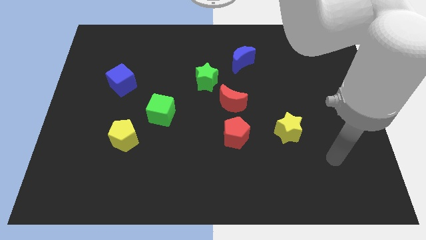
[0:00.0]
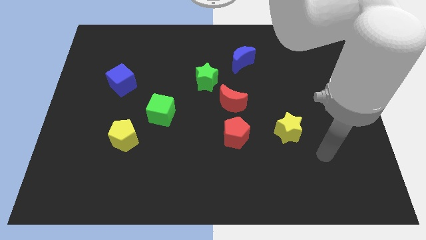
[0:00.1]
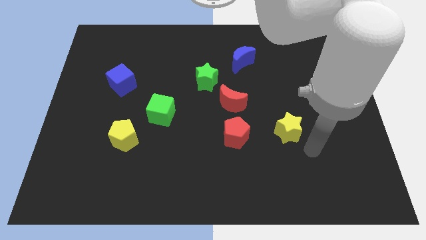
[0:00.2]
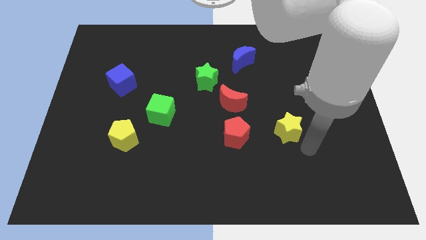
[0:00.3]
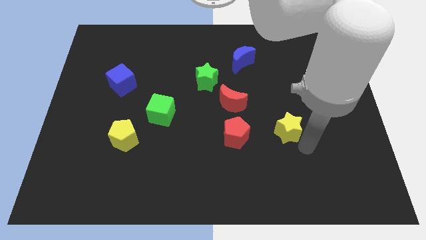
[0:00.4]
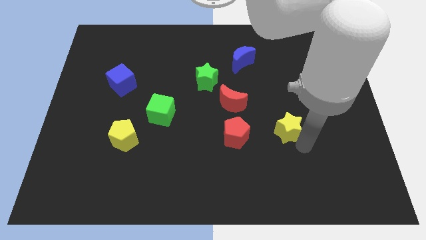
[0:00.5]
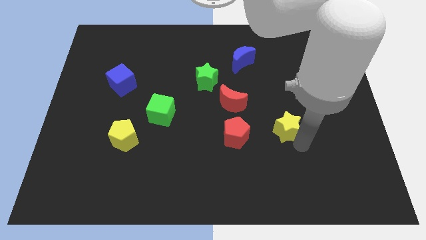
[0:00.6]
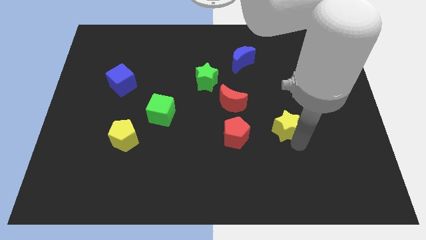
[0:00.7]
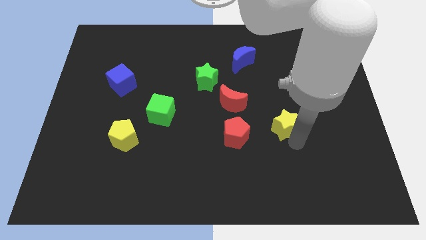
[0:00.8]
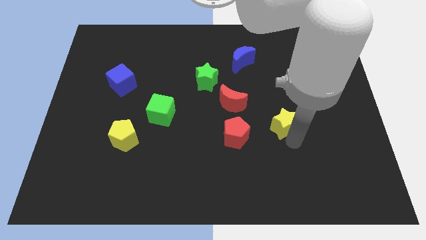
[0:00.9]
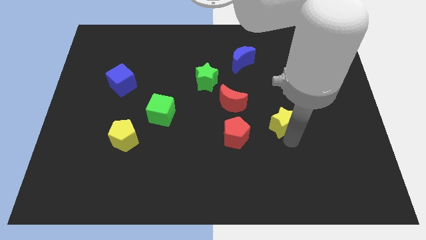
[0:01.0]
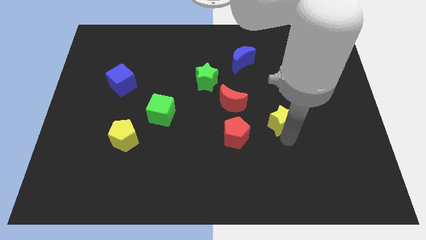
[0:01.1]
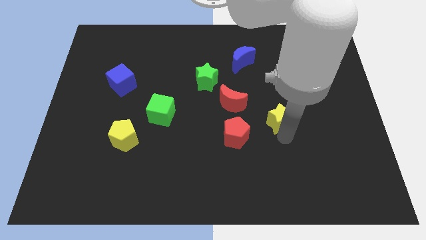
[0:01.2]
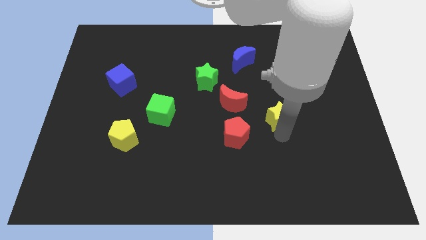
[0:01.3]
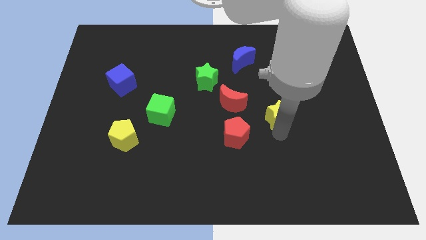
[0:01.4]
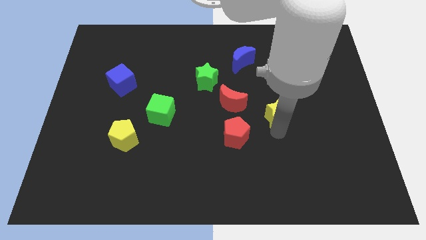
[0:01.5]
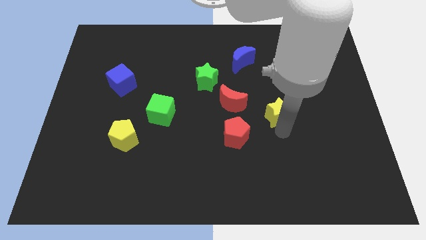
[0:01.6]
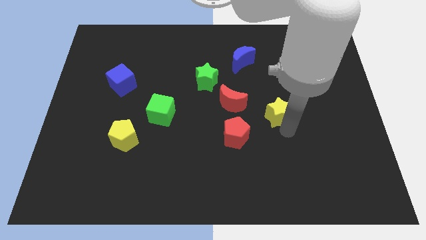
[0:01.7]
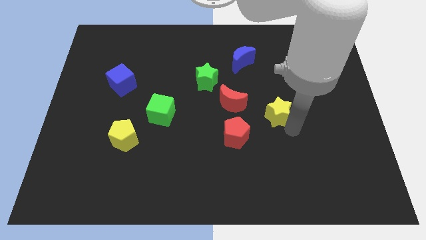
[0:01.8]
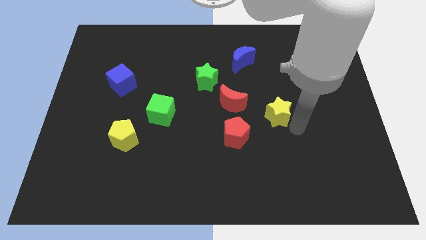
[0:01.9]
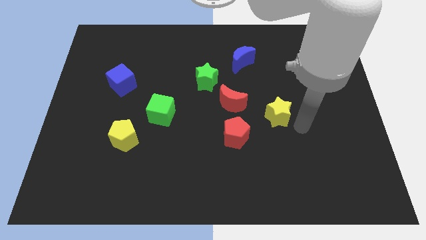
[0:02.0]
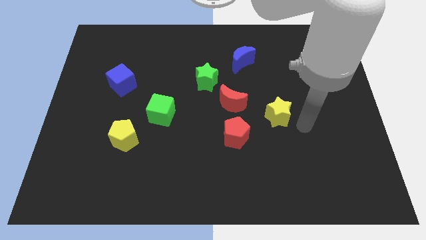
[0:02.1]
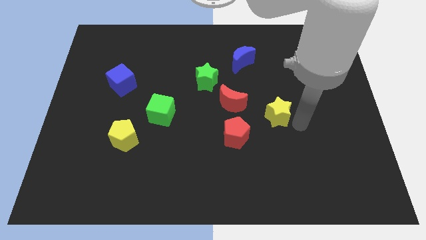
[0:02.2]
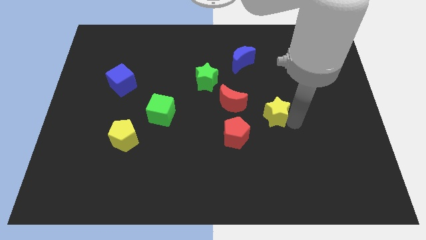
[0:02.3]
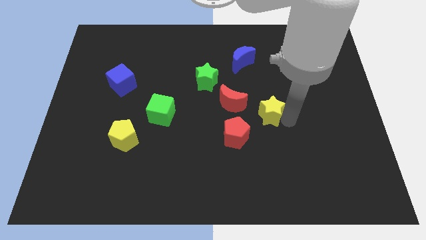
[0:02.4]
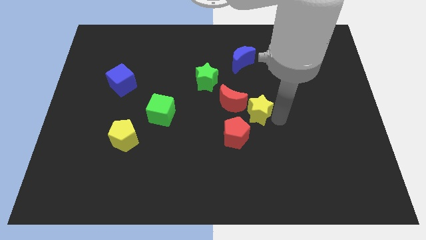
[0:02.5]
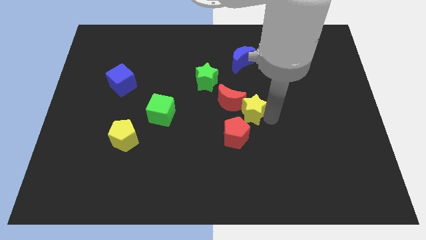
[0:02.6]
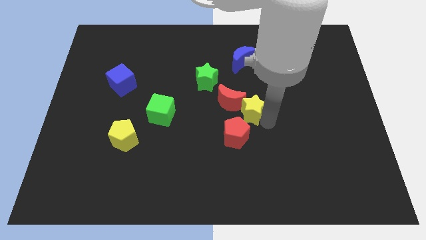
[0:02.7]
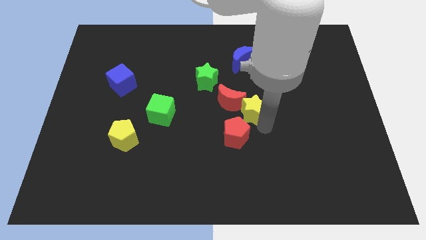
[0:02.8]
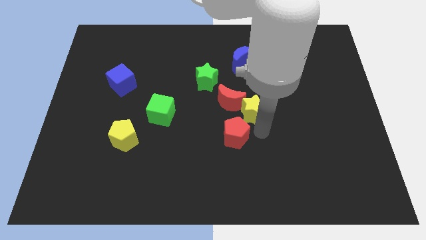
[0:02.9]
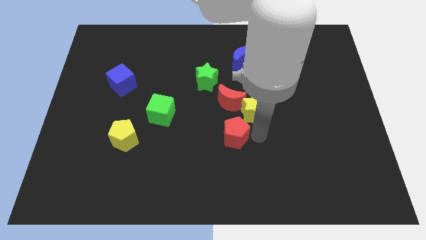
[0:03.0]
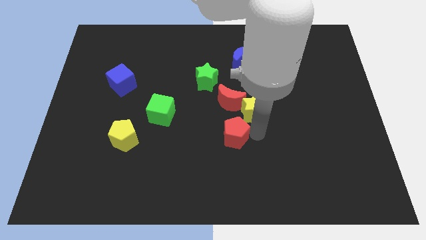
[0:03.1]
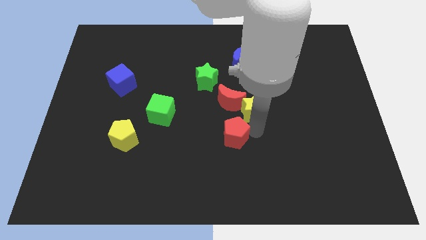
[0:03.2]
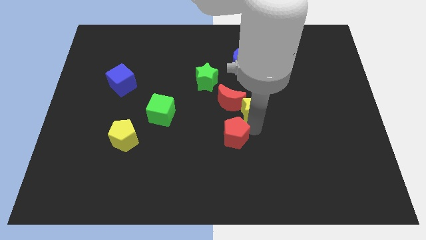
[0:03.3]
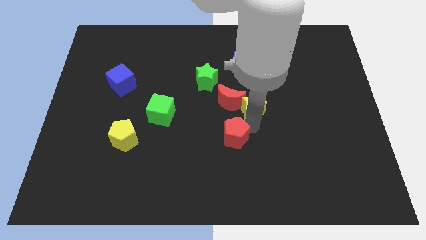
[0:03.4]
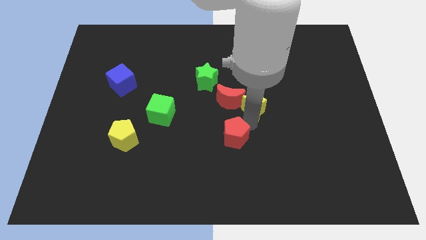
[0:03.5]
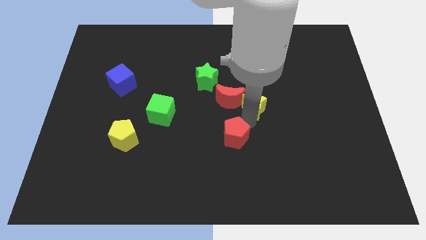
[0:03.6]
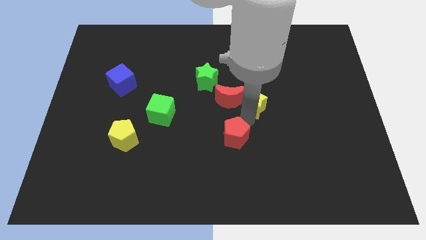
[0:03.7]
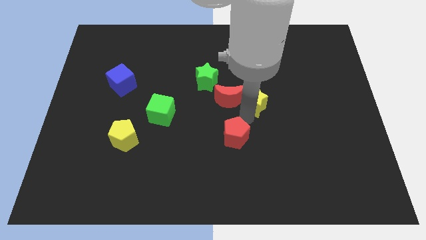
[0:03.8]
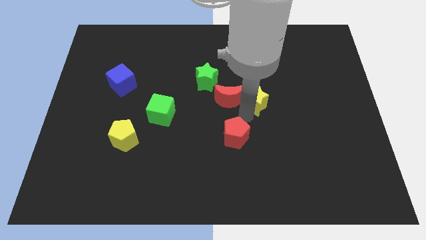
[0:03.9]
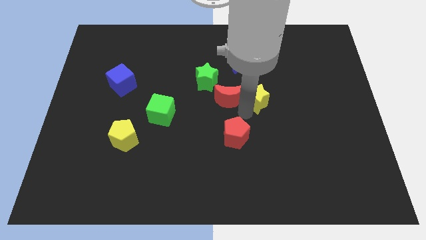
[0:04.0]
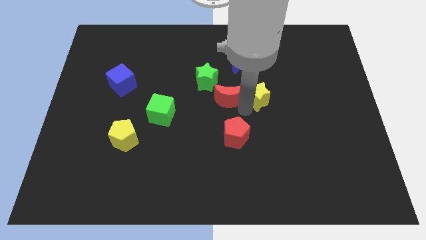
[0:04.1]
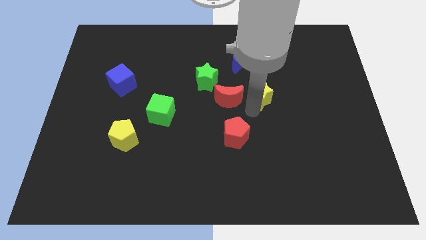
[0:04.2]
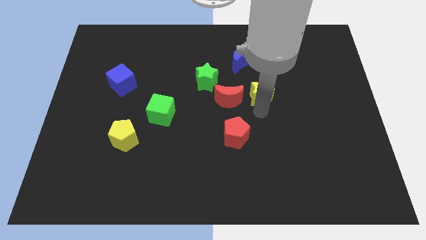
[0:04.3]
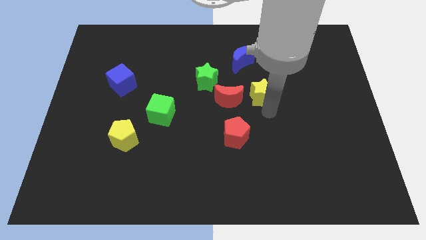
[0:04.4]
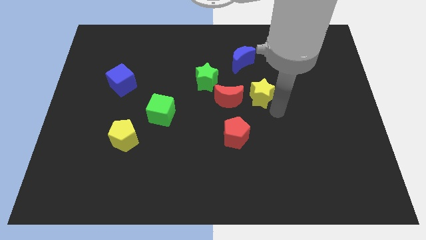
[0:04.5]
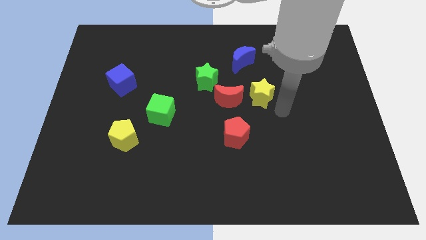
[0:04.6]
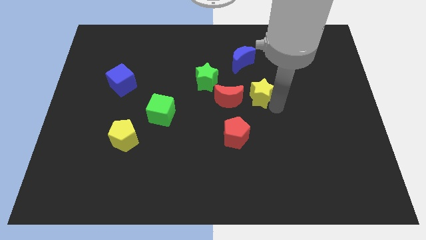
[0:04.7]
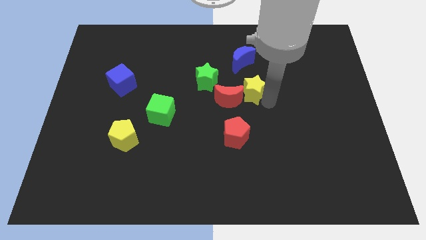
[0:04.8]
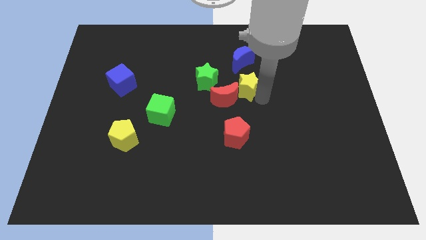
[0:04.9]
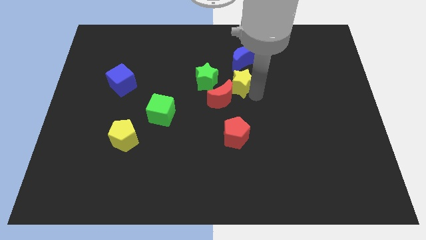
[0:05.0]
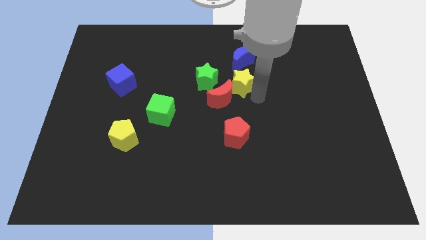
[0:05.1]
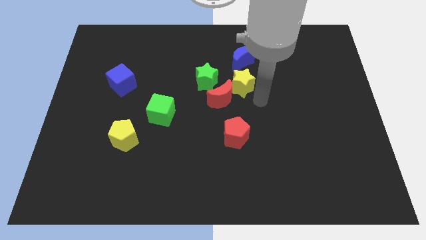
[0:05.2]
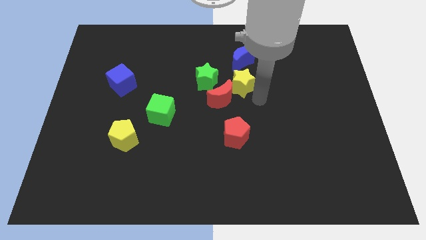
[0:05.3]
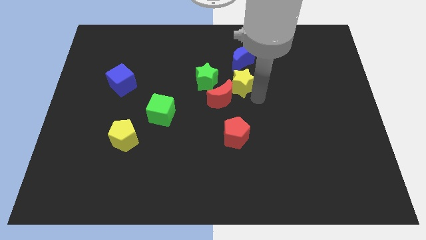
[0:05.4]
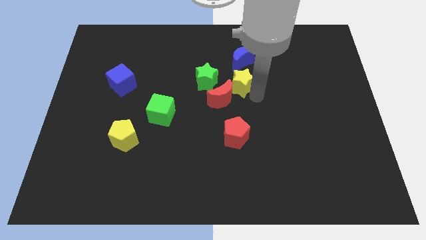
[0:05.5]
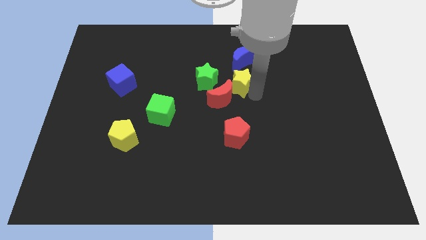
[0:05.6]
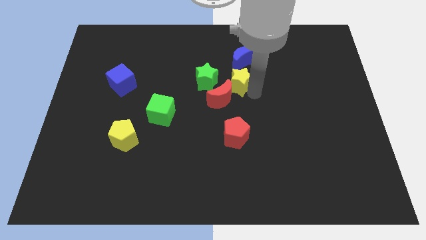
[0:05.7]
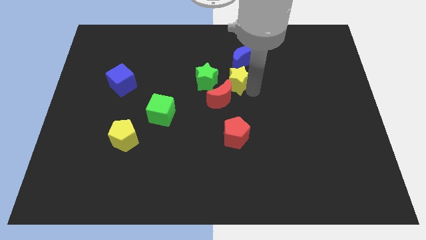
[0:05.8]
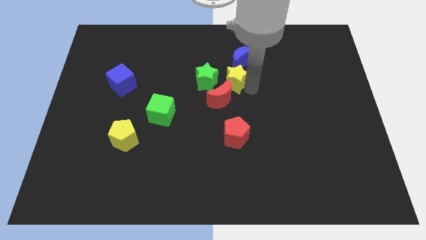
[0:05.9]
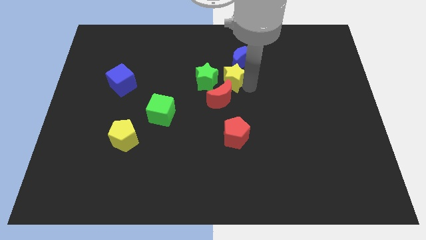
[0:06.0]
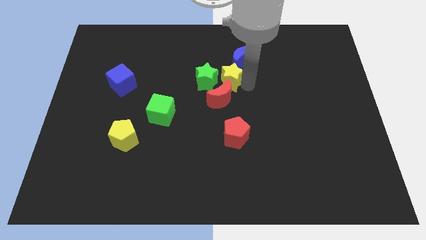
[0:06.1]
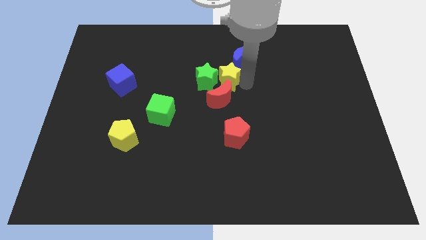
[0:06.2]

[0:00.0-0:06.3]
push the yellow star upwards and to the left

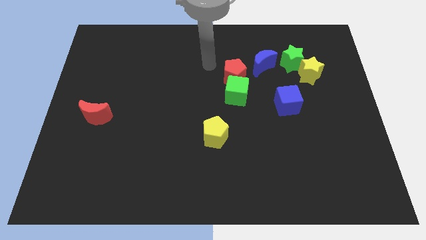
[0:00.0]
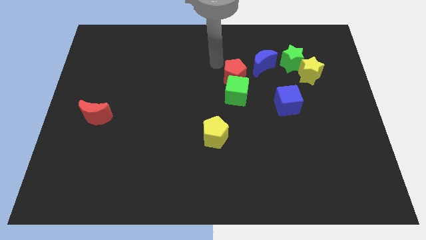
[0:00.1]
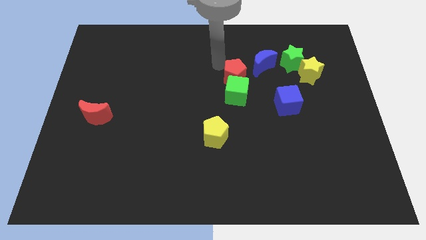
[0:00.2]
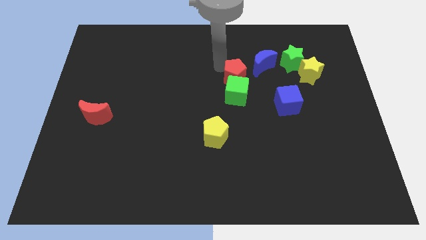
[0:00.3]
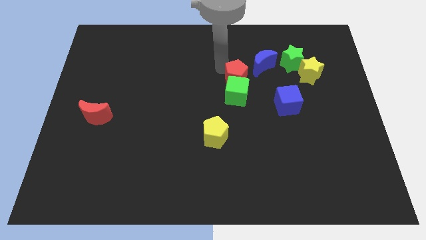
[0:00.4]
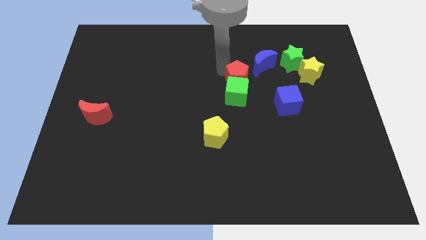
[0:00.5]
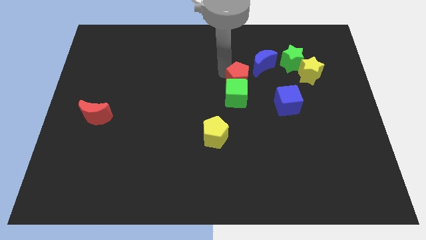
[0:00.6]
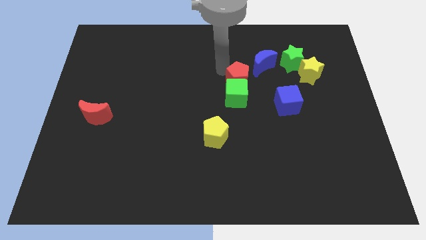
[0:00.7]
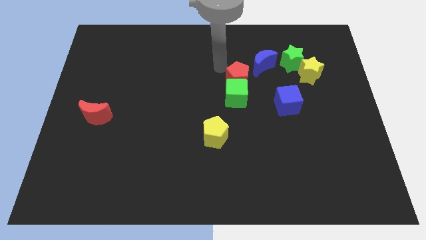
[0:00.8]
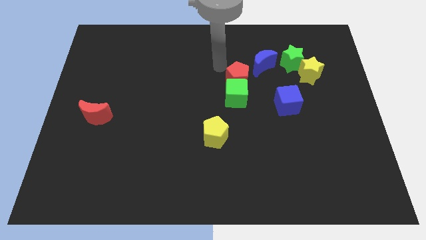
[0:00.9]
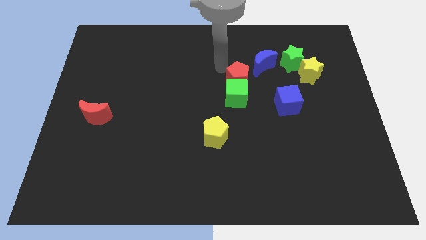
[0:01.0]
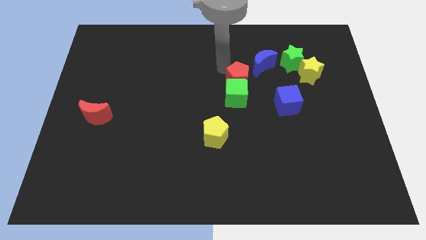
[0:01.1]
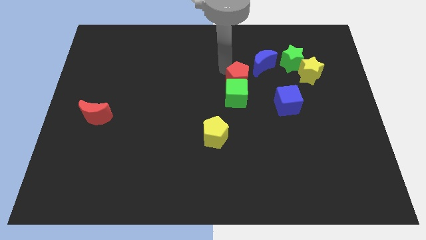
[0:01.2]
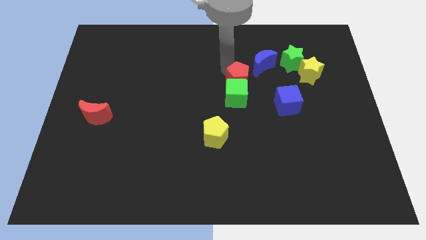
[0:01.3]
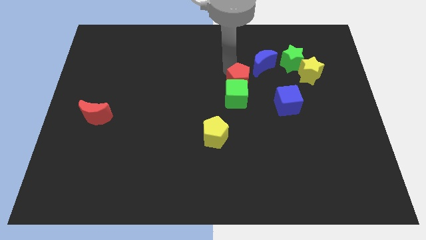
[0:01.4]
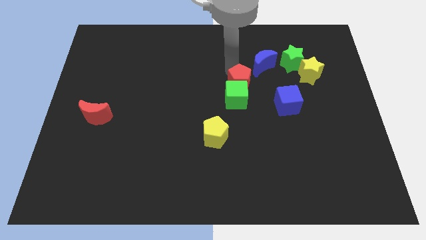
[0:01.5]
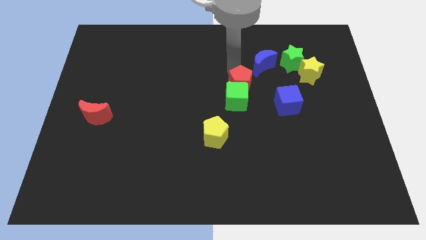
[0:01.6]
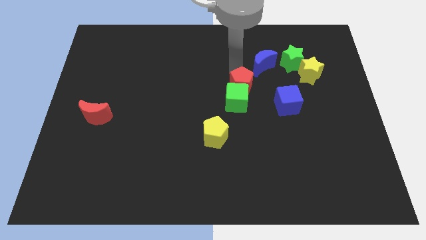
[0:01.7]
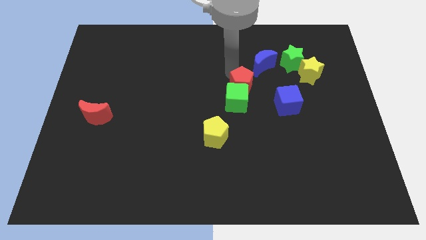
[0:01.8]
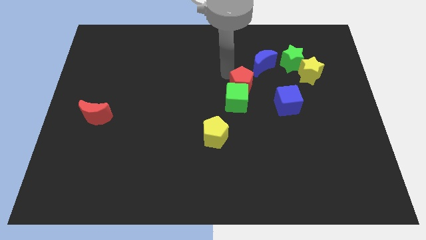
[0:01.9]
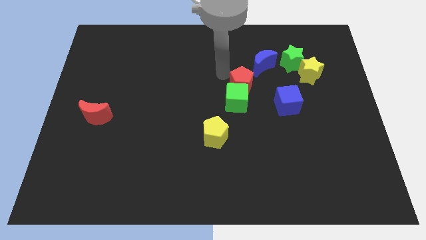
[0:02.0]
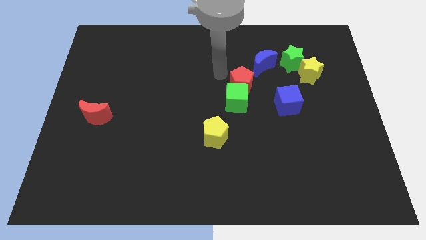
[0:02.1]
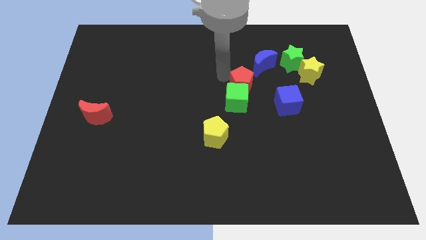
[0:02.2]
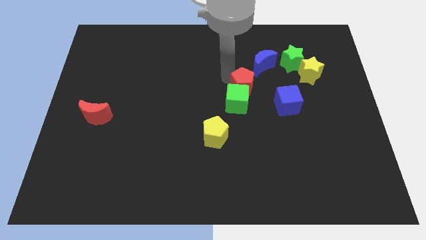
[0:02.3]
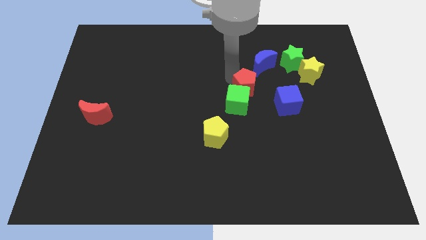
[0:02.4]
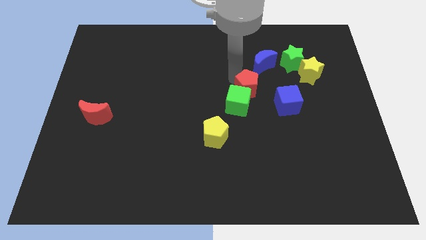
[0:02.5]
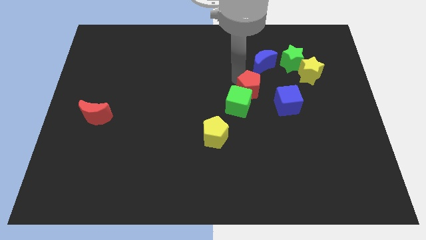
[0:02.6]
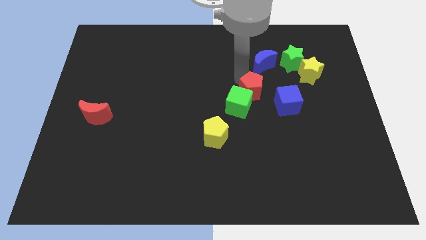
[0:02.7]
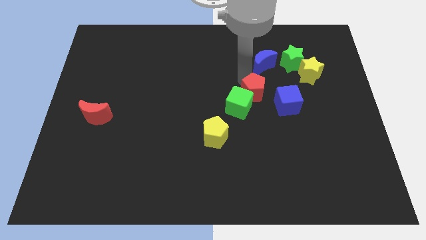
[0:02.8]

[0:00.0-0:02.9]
slightly move the red pentagon down and to the right
